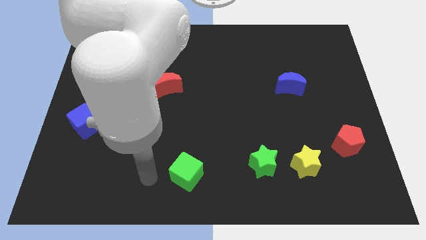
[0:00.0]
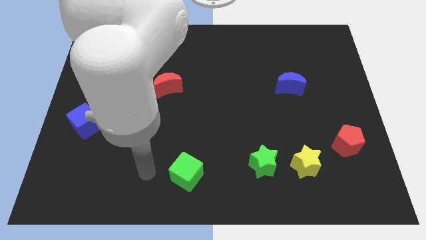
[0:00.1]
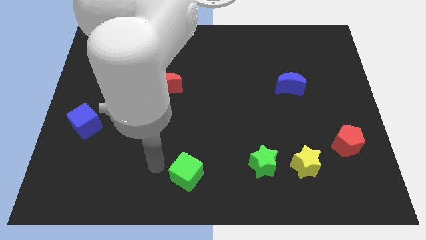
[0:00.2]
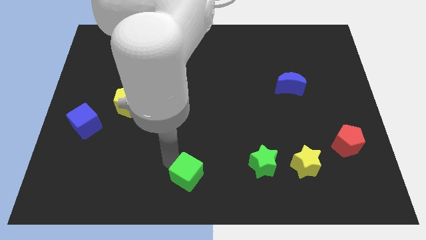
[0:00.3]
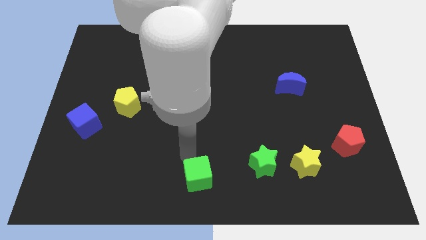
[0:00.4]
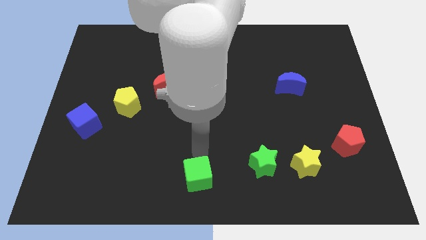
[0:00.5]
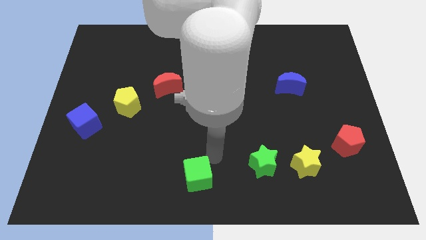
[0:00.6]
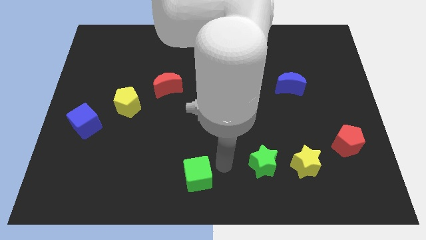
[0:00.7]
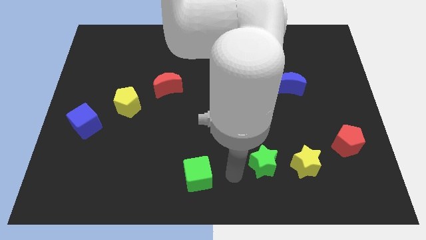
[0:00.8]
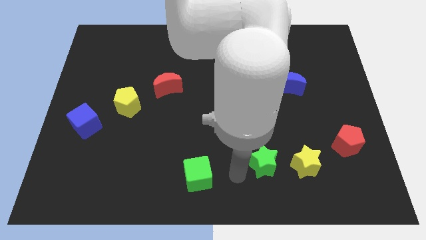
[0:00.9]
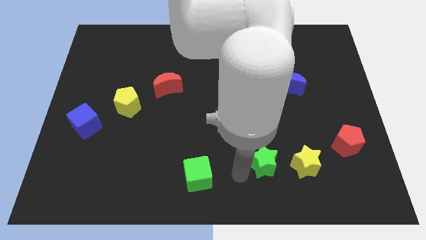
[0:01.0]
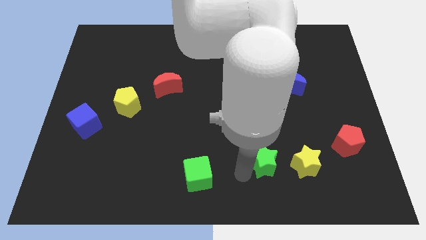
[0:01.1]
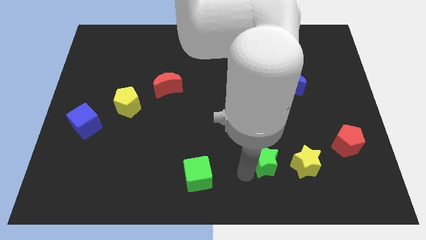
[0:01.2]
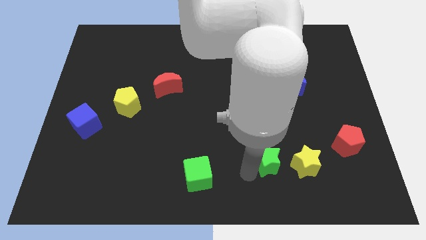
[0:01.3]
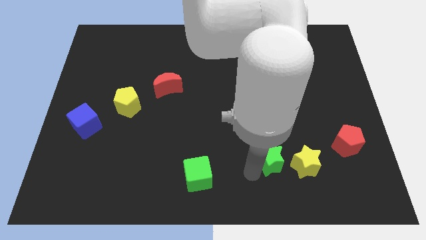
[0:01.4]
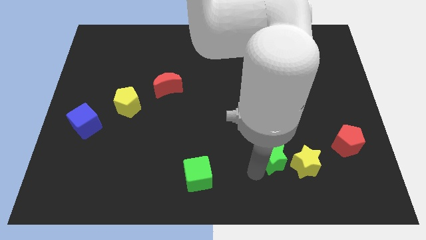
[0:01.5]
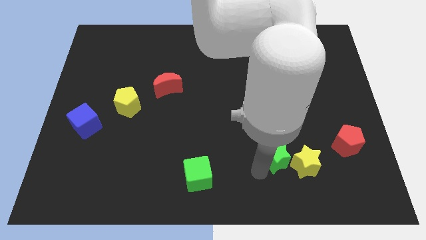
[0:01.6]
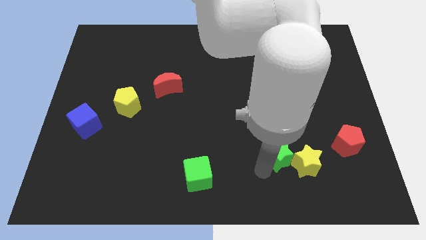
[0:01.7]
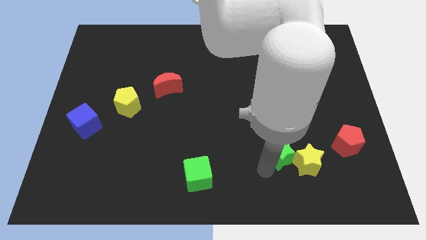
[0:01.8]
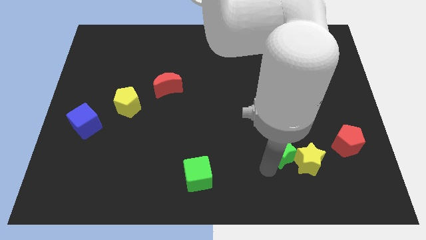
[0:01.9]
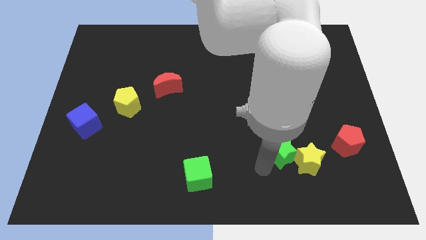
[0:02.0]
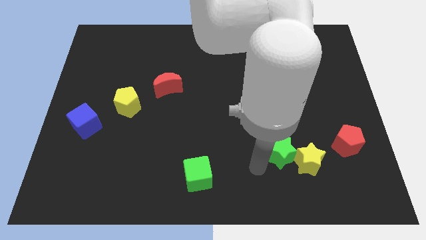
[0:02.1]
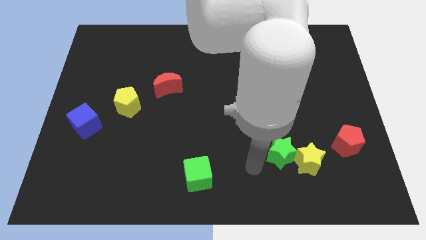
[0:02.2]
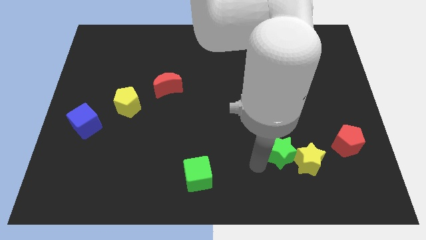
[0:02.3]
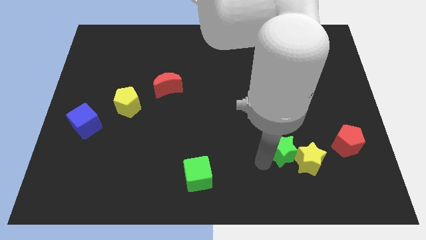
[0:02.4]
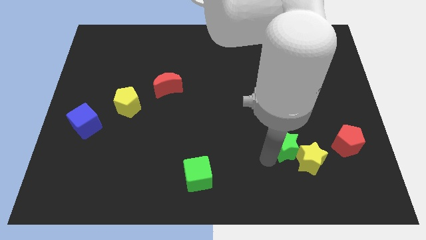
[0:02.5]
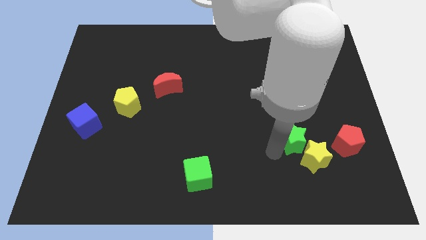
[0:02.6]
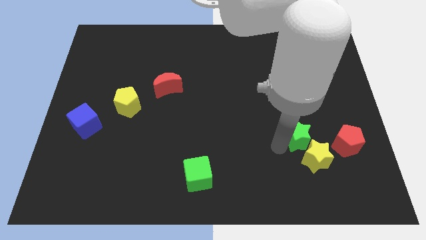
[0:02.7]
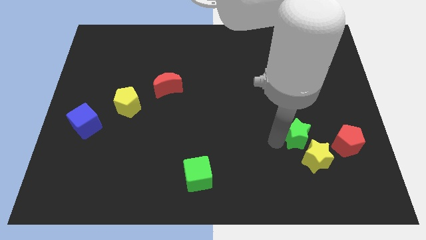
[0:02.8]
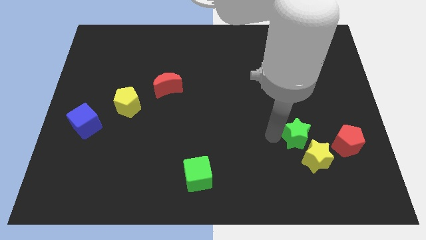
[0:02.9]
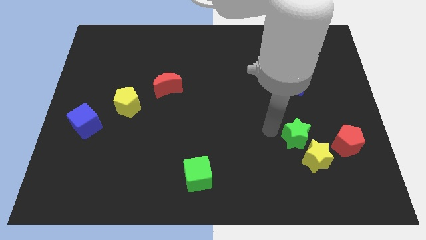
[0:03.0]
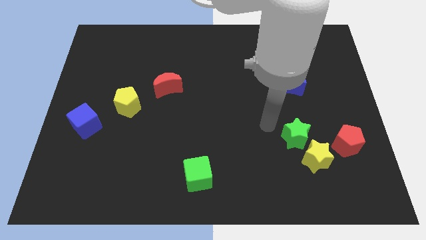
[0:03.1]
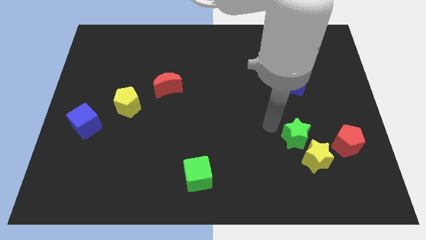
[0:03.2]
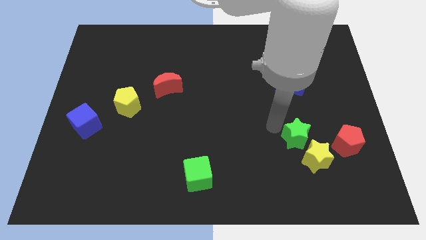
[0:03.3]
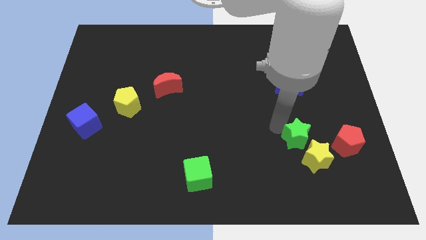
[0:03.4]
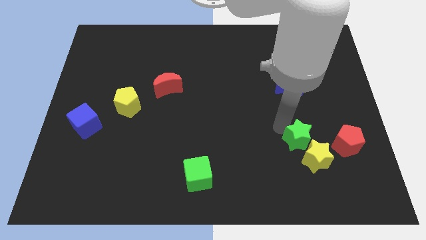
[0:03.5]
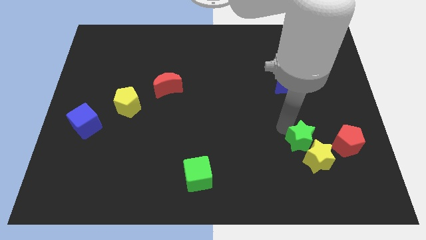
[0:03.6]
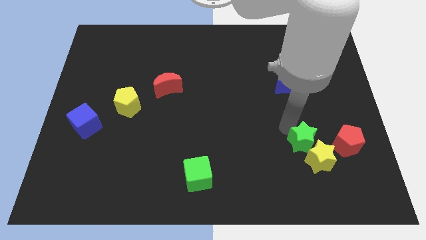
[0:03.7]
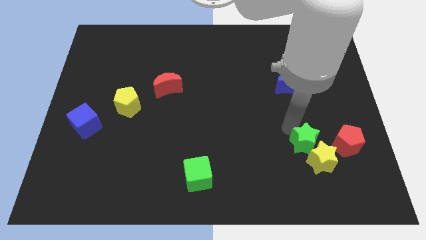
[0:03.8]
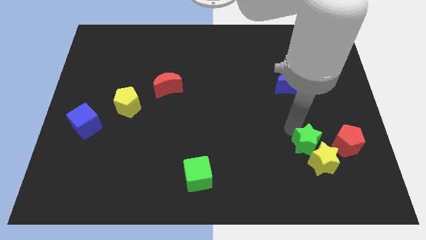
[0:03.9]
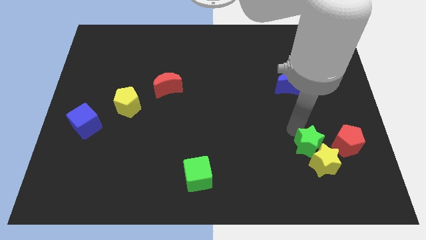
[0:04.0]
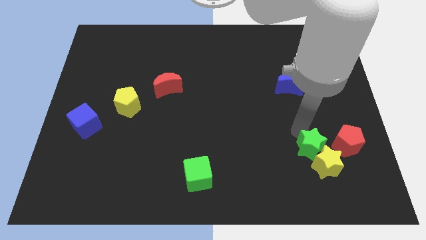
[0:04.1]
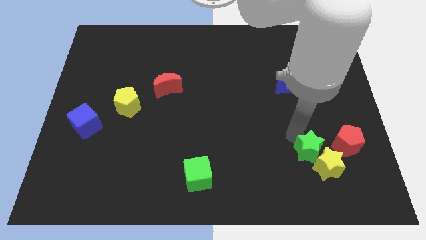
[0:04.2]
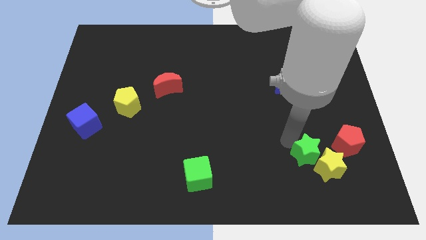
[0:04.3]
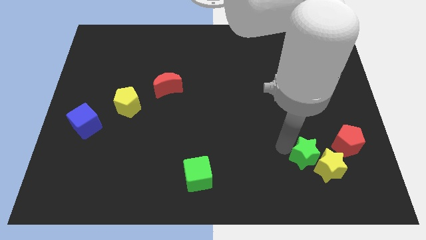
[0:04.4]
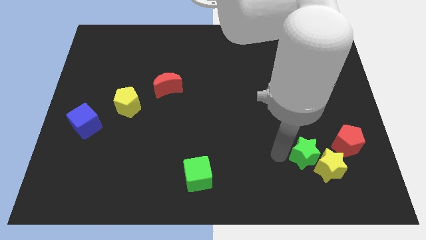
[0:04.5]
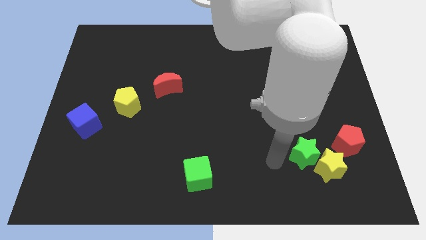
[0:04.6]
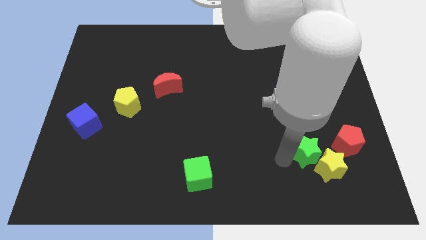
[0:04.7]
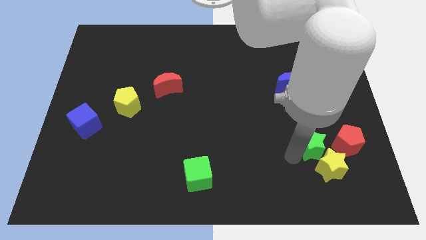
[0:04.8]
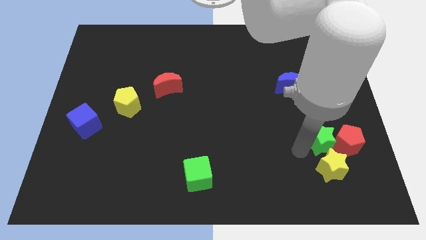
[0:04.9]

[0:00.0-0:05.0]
move the green star towards the red pentagon

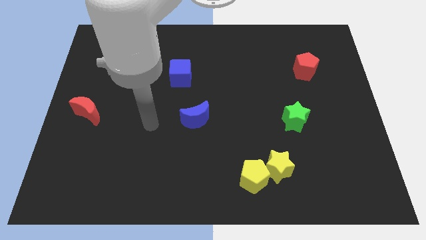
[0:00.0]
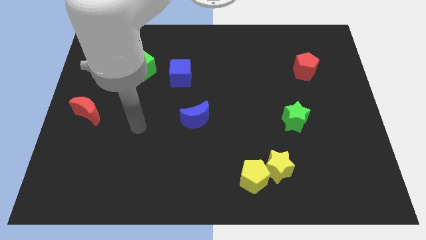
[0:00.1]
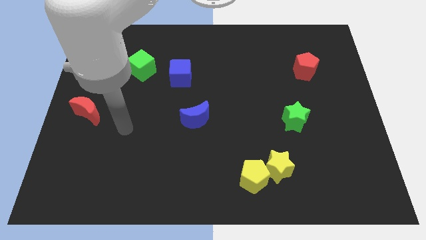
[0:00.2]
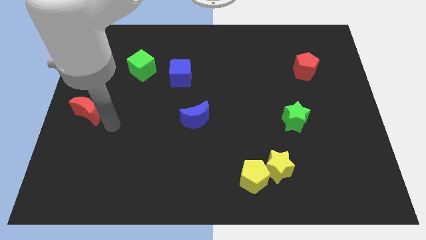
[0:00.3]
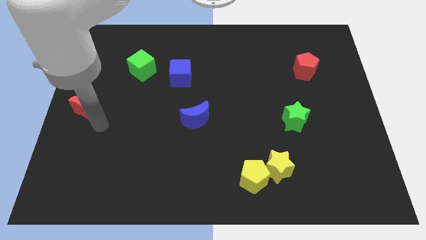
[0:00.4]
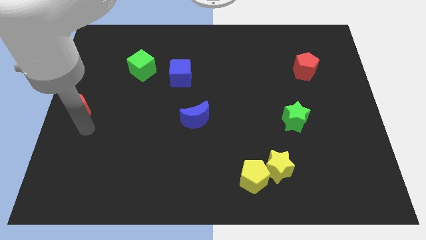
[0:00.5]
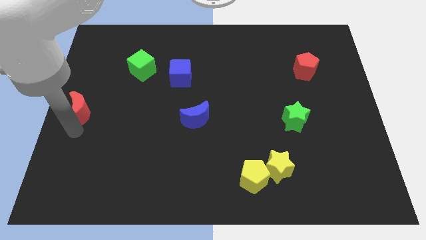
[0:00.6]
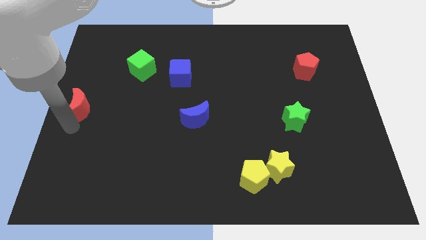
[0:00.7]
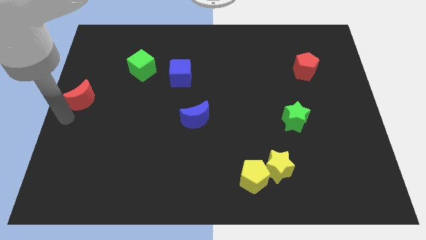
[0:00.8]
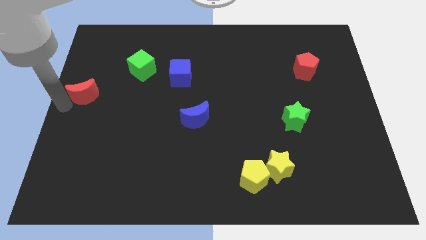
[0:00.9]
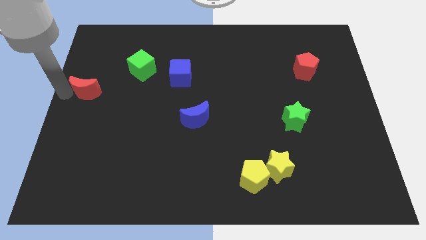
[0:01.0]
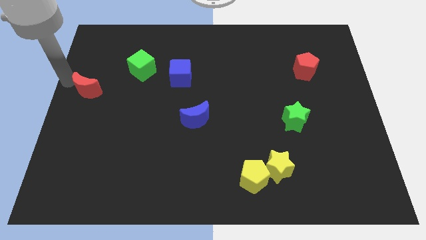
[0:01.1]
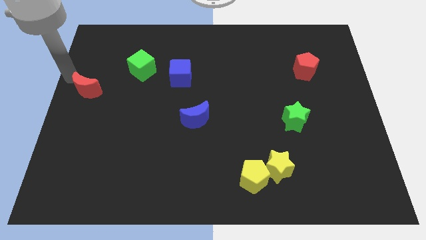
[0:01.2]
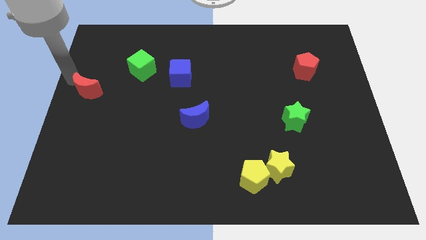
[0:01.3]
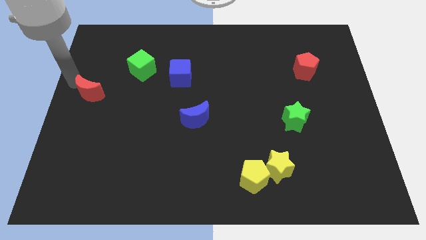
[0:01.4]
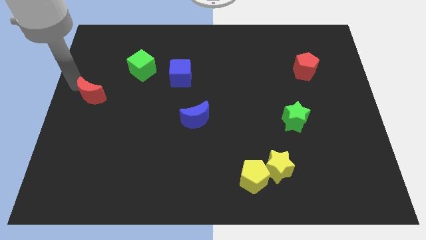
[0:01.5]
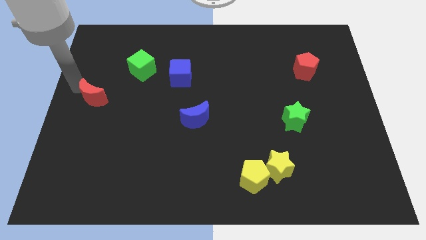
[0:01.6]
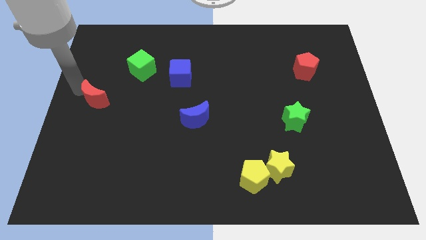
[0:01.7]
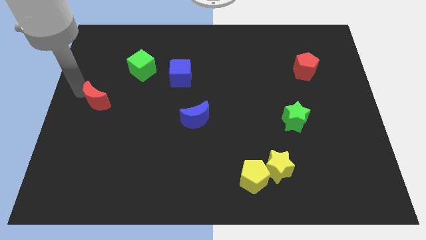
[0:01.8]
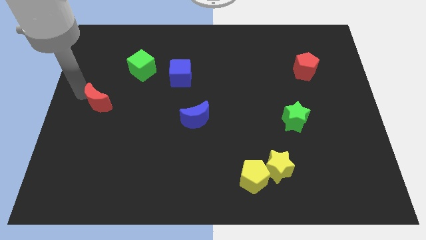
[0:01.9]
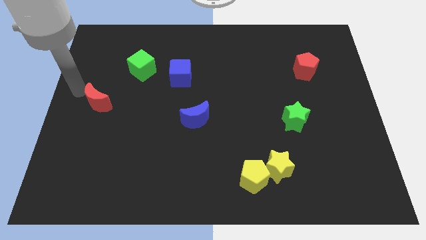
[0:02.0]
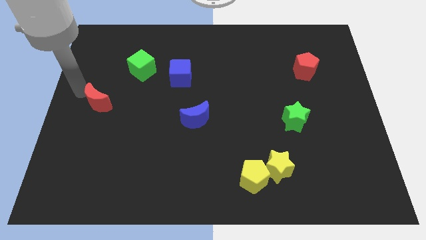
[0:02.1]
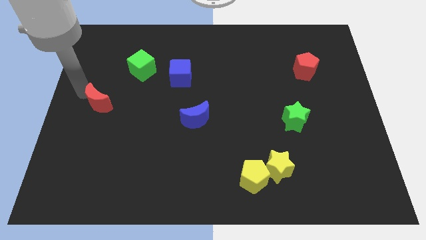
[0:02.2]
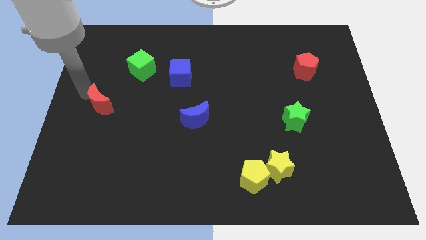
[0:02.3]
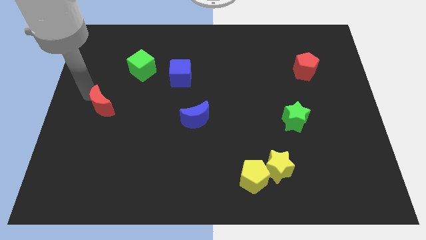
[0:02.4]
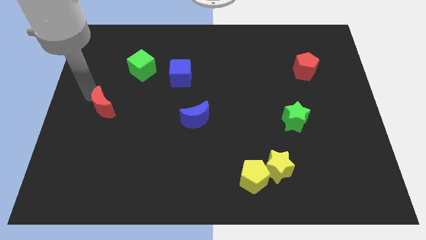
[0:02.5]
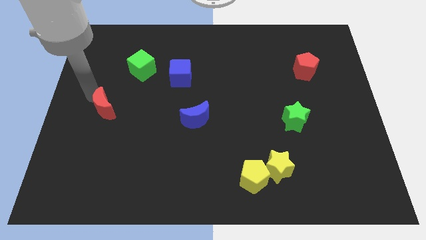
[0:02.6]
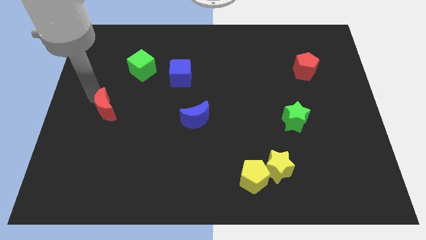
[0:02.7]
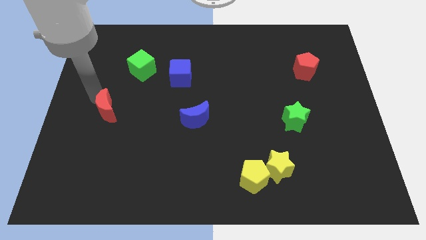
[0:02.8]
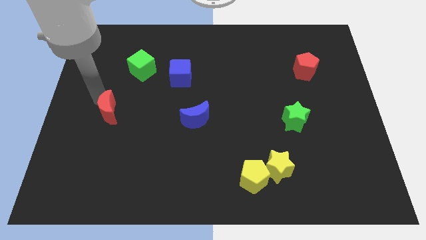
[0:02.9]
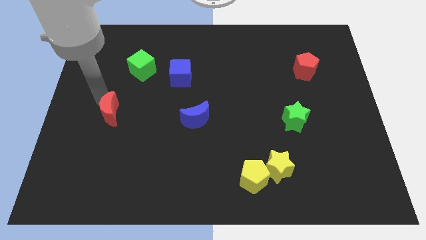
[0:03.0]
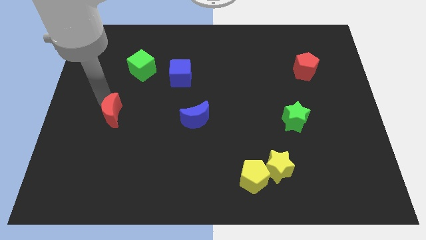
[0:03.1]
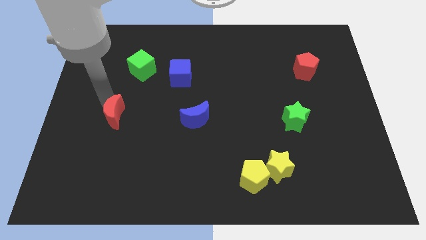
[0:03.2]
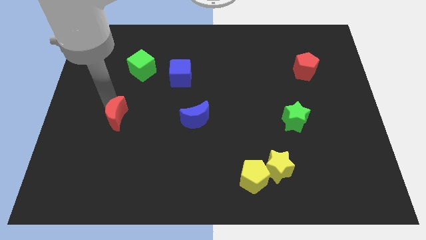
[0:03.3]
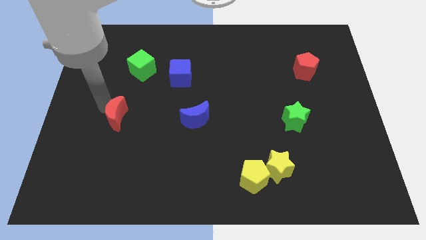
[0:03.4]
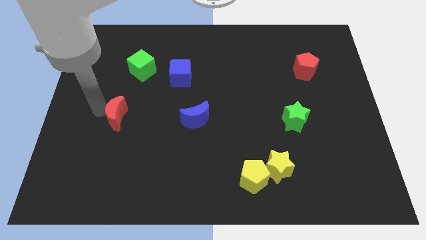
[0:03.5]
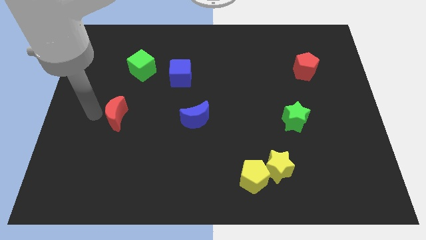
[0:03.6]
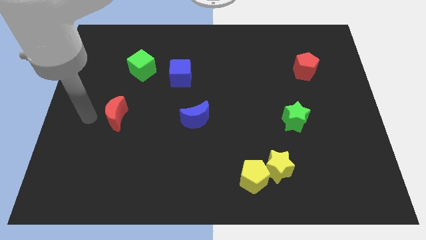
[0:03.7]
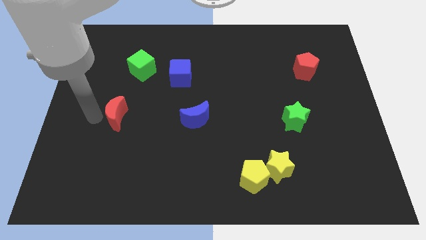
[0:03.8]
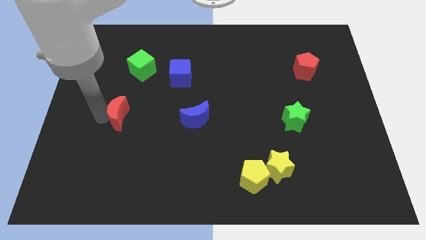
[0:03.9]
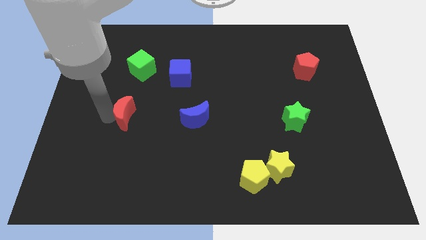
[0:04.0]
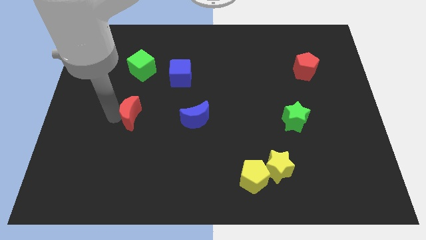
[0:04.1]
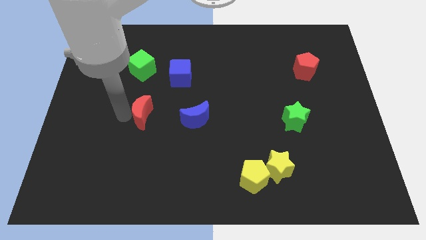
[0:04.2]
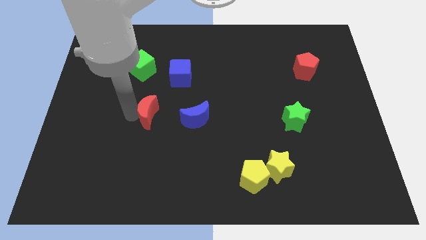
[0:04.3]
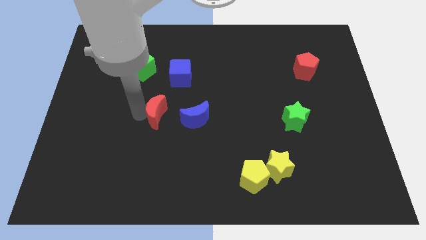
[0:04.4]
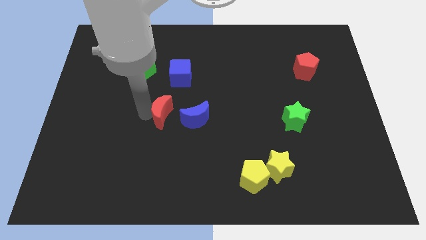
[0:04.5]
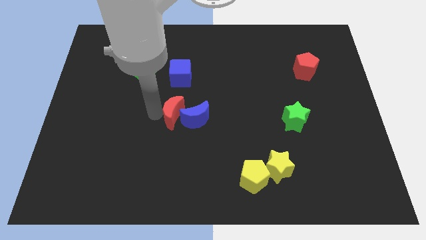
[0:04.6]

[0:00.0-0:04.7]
move the red moon close to the blue moon
